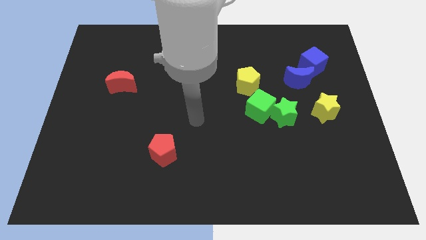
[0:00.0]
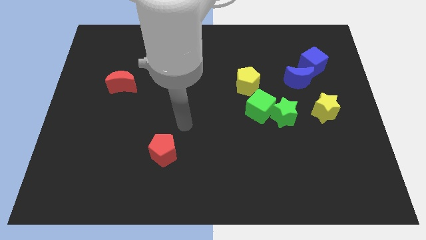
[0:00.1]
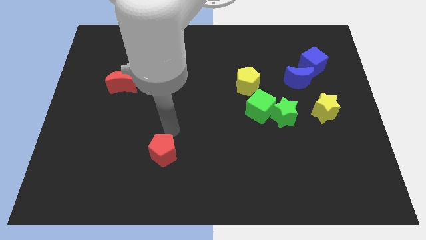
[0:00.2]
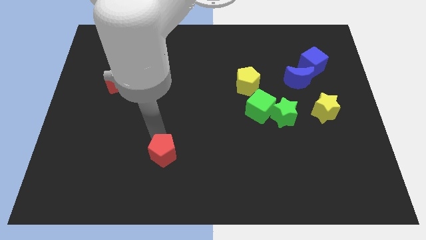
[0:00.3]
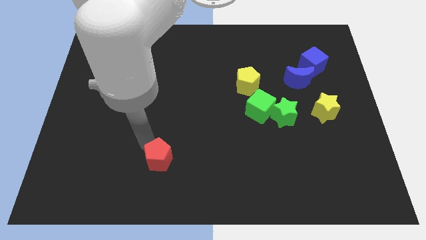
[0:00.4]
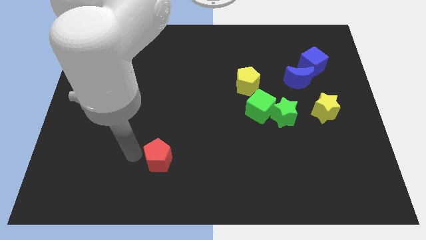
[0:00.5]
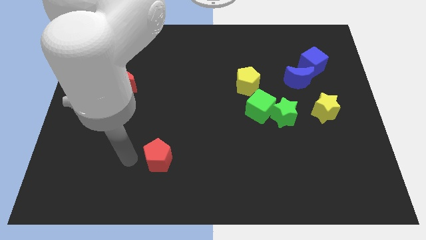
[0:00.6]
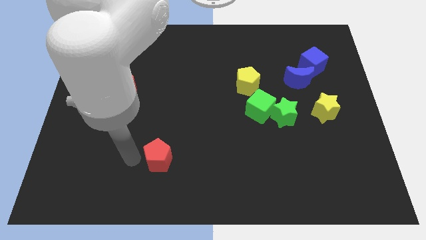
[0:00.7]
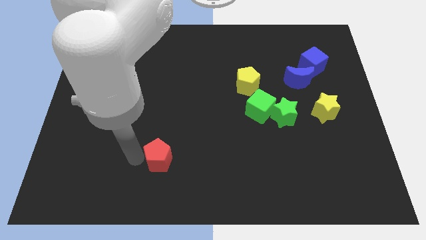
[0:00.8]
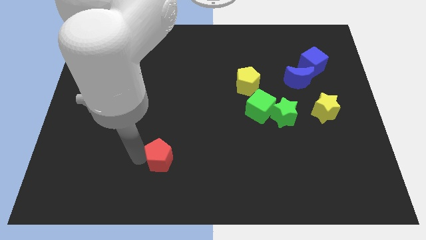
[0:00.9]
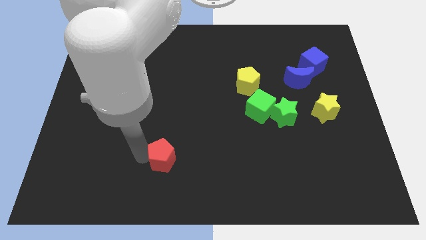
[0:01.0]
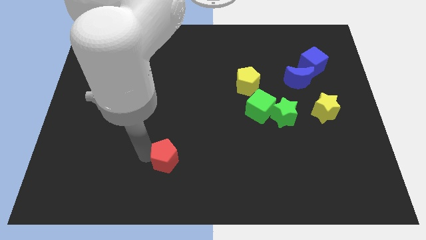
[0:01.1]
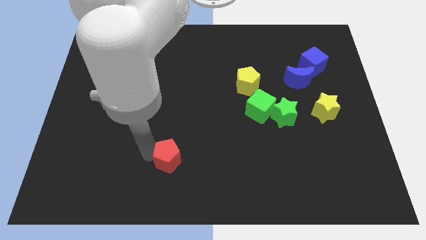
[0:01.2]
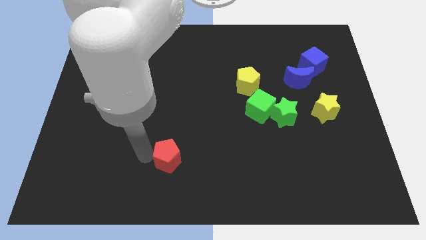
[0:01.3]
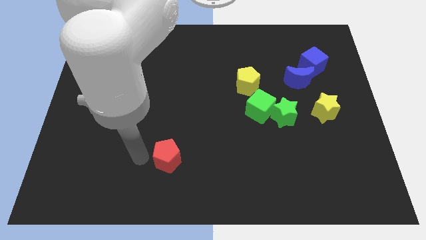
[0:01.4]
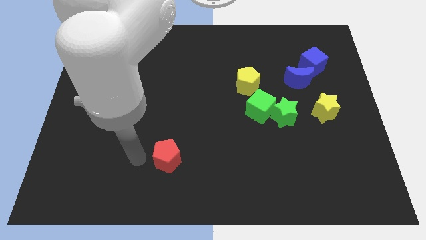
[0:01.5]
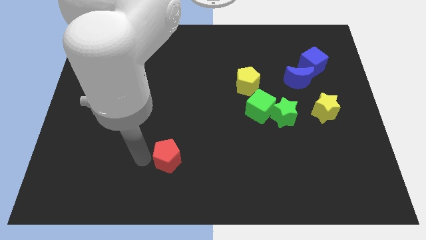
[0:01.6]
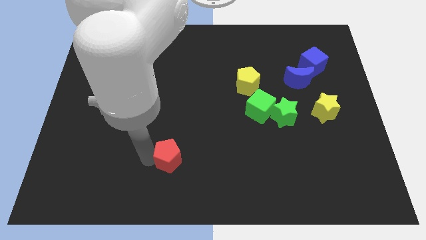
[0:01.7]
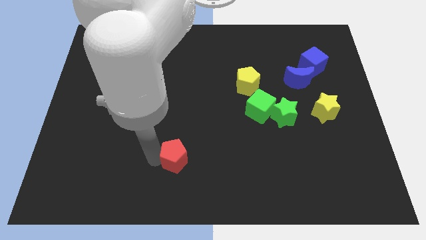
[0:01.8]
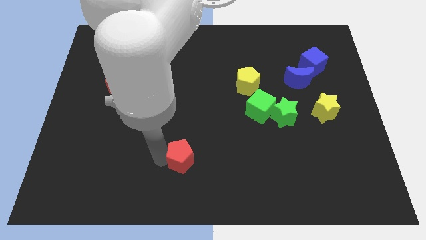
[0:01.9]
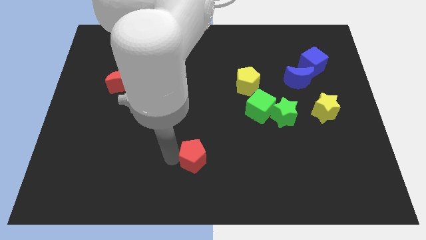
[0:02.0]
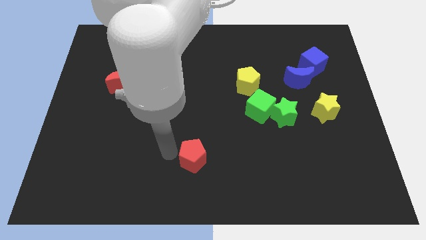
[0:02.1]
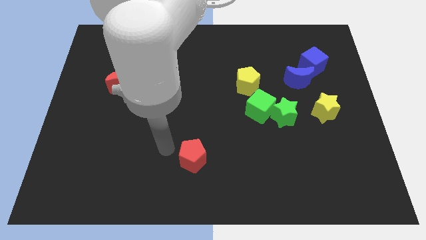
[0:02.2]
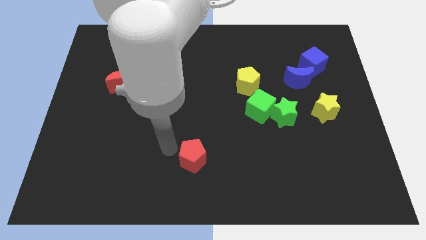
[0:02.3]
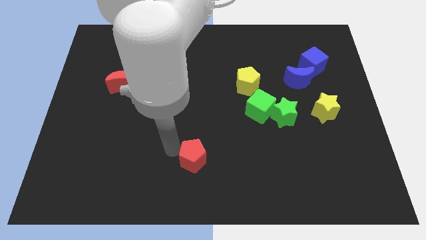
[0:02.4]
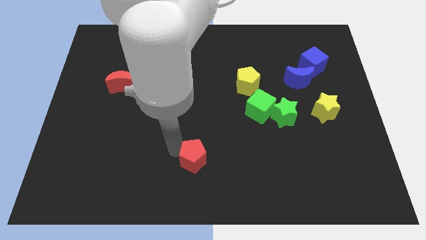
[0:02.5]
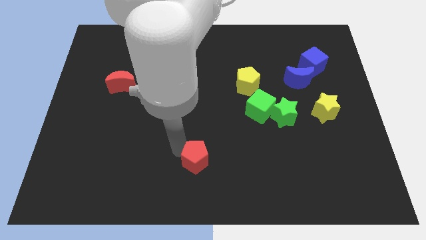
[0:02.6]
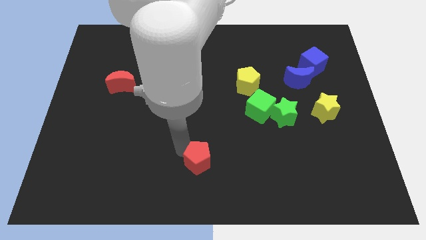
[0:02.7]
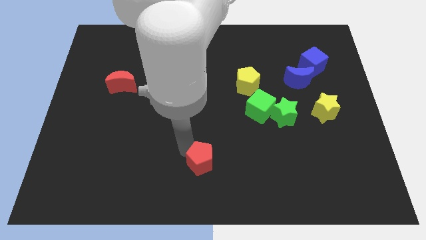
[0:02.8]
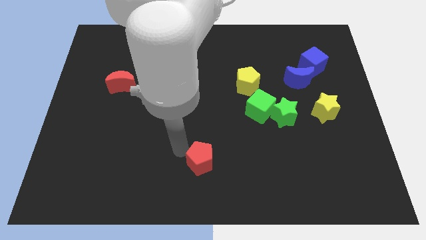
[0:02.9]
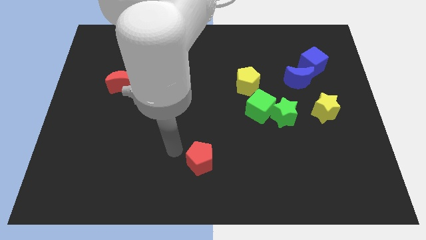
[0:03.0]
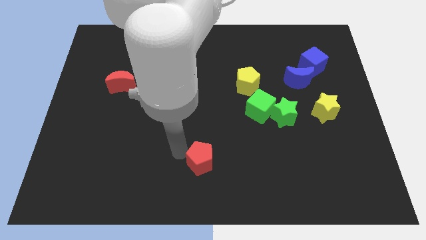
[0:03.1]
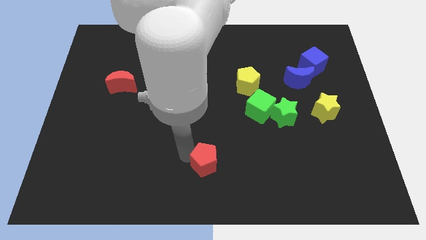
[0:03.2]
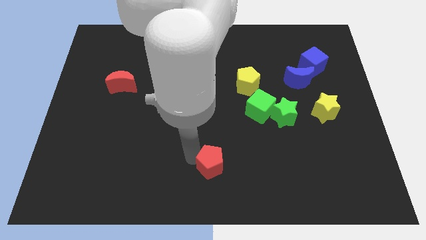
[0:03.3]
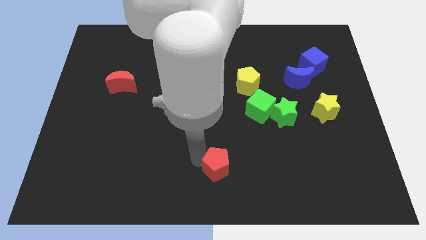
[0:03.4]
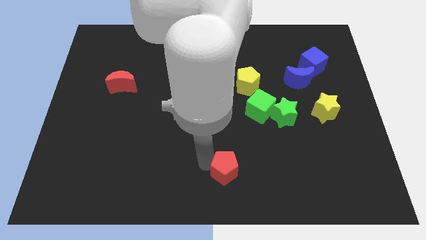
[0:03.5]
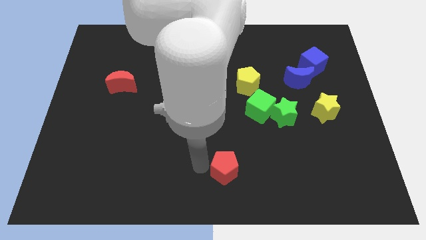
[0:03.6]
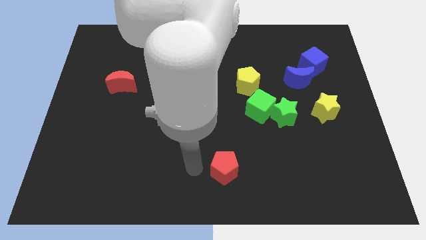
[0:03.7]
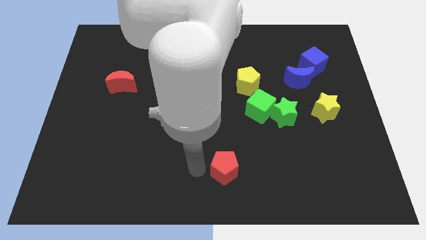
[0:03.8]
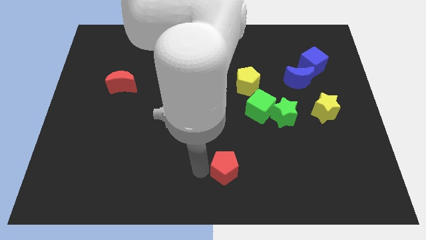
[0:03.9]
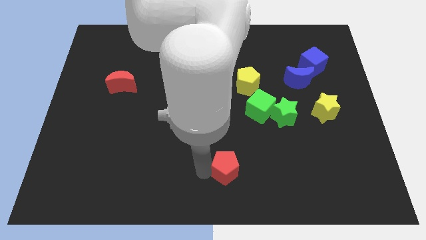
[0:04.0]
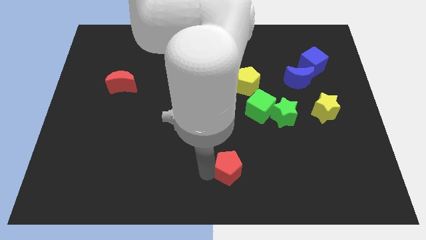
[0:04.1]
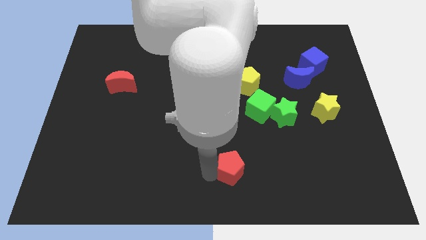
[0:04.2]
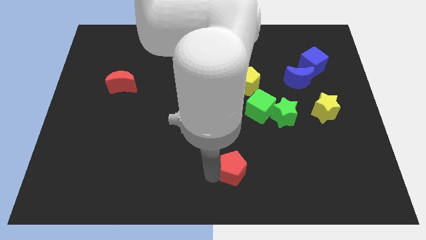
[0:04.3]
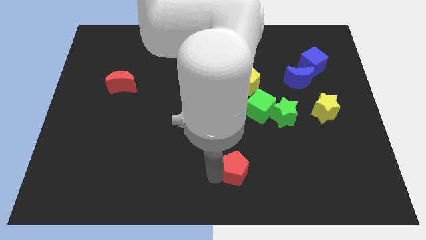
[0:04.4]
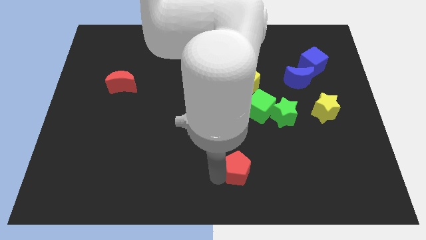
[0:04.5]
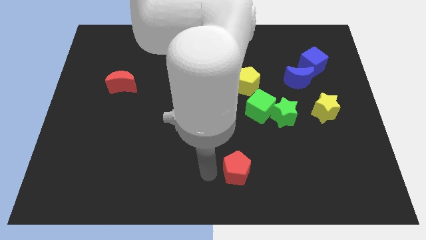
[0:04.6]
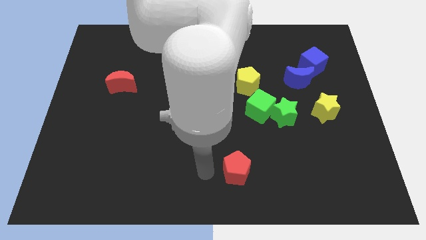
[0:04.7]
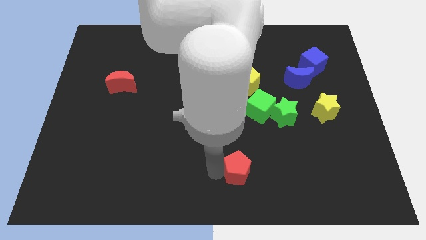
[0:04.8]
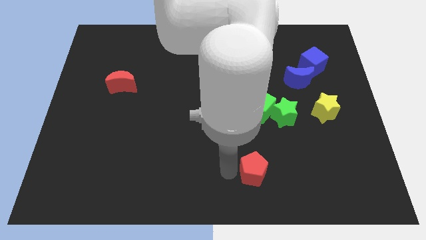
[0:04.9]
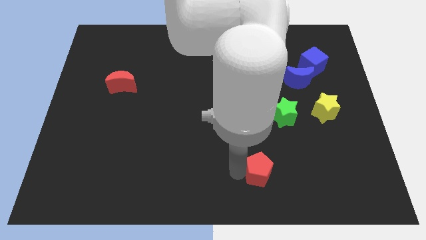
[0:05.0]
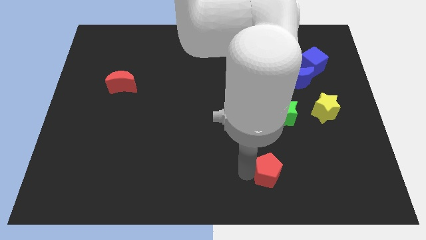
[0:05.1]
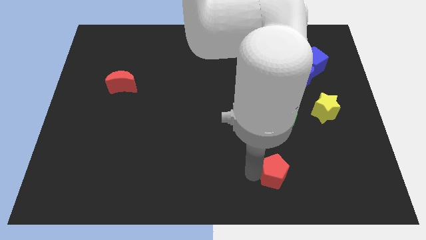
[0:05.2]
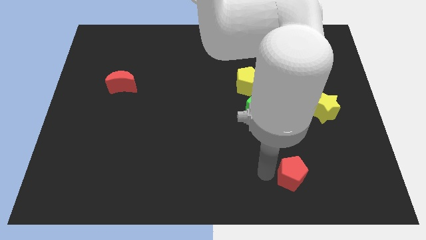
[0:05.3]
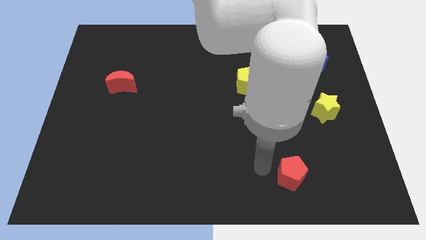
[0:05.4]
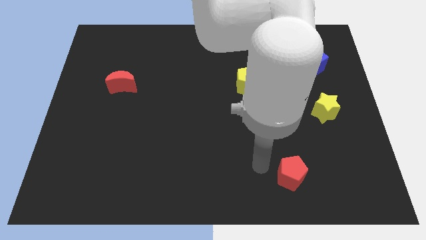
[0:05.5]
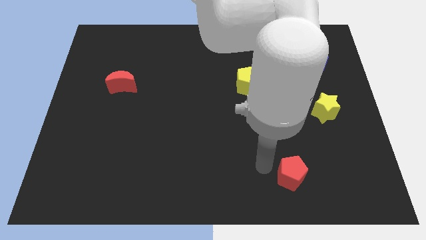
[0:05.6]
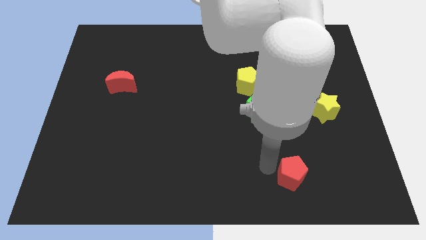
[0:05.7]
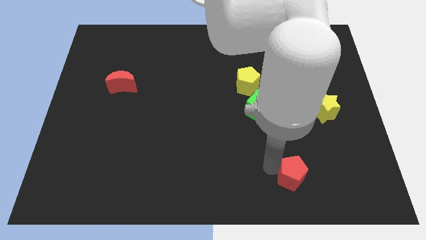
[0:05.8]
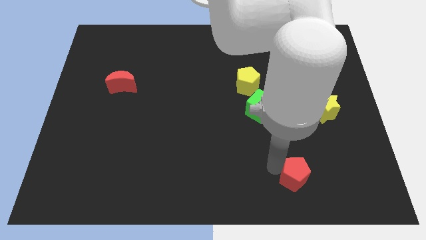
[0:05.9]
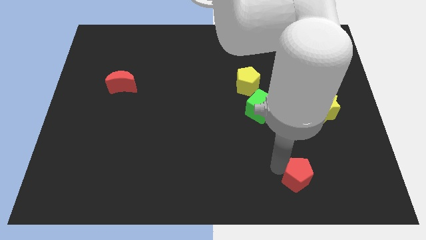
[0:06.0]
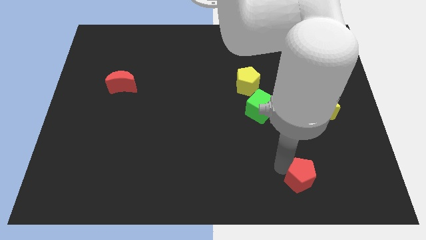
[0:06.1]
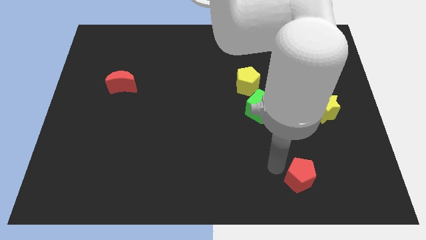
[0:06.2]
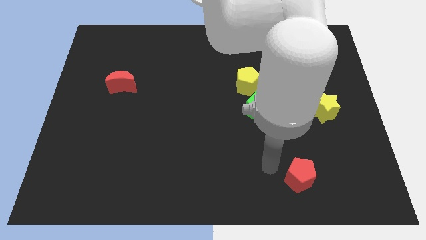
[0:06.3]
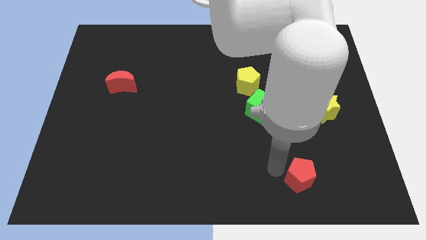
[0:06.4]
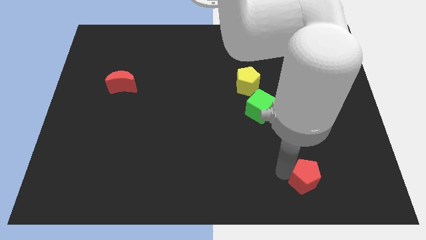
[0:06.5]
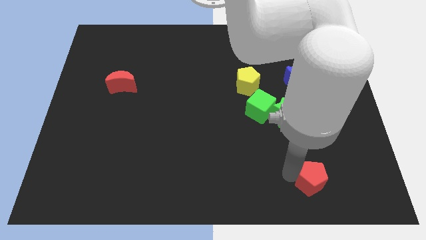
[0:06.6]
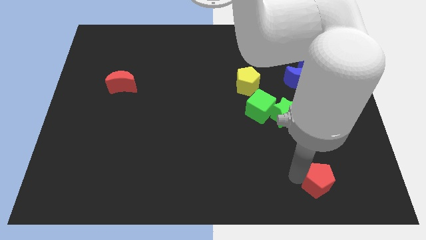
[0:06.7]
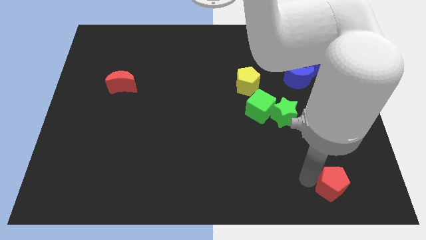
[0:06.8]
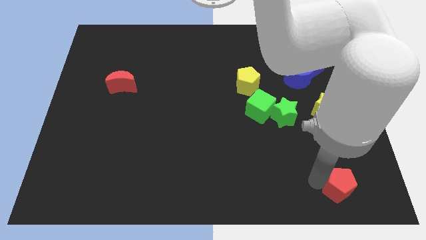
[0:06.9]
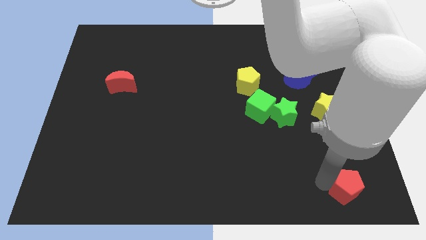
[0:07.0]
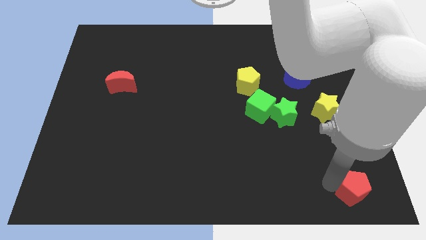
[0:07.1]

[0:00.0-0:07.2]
slide the red pentagon to the bottom right corner

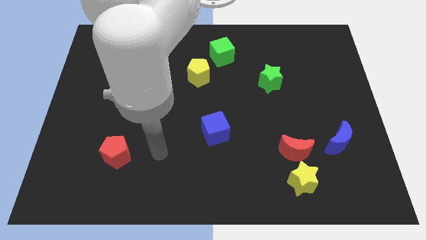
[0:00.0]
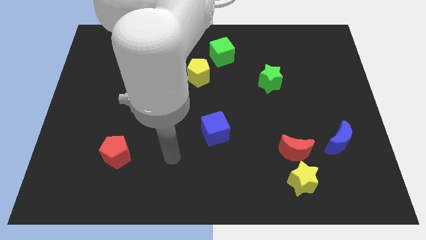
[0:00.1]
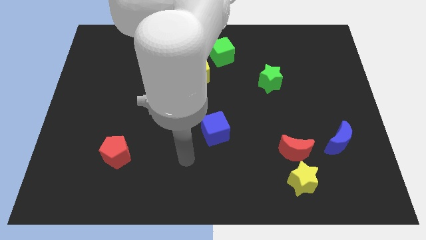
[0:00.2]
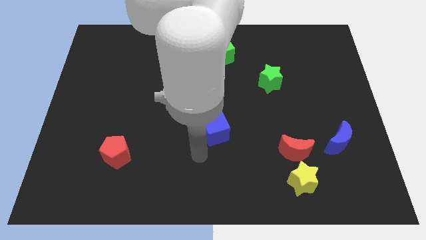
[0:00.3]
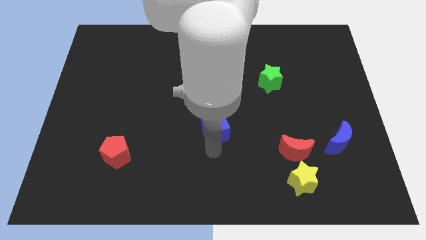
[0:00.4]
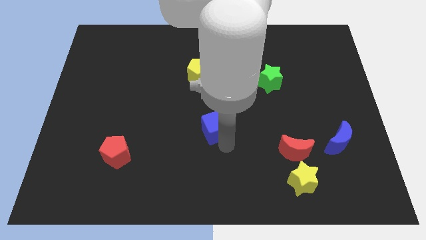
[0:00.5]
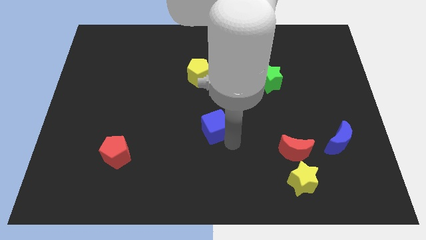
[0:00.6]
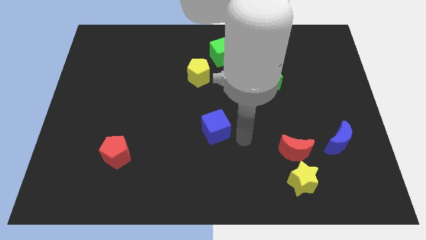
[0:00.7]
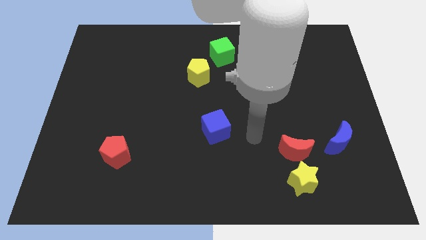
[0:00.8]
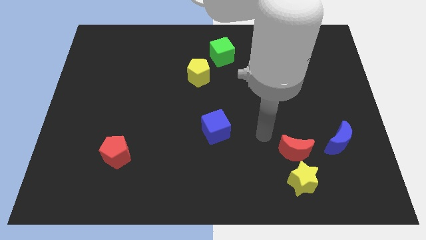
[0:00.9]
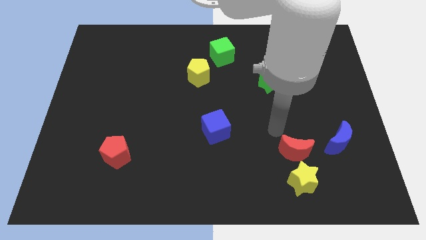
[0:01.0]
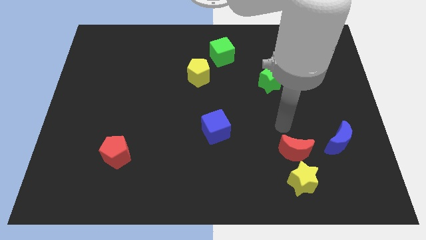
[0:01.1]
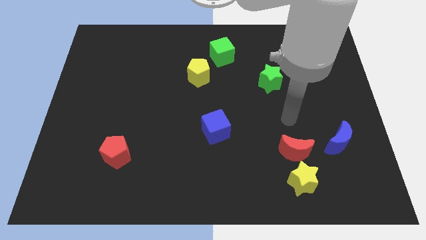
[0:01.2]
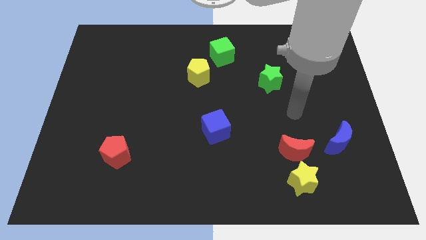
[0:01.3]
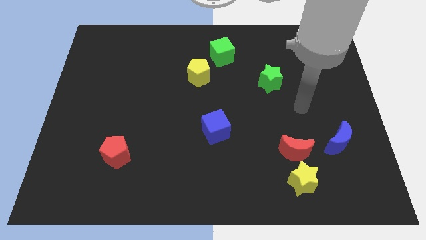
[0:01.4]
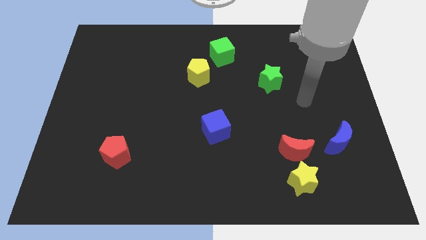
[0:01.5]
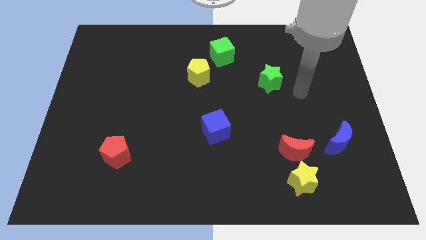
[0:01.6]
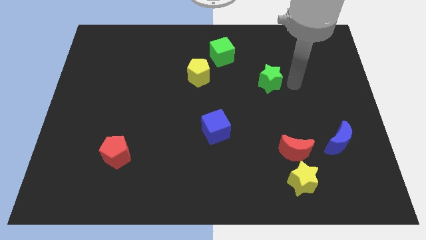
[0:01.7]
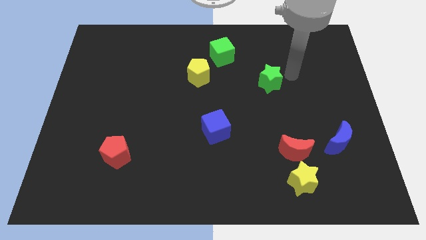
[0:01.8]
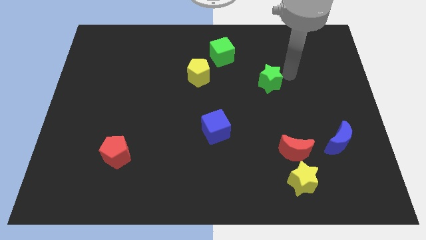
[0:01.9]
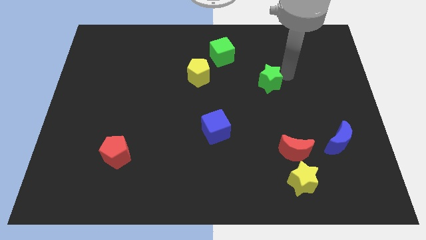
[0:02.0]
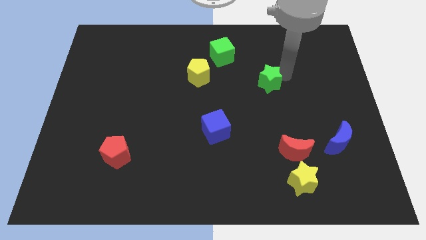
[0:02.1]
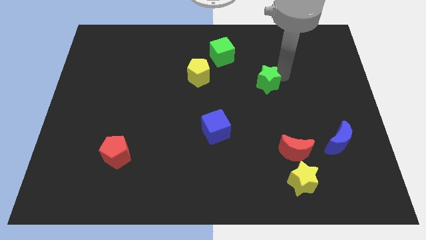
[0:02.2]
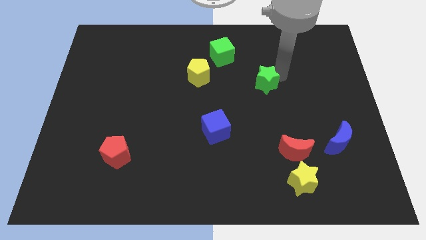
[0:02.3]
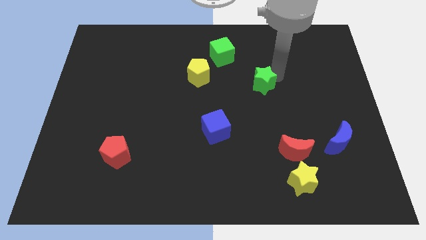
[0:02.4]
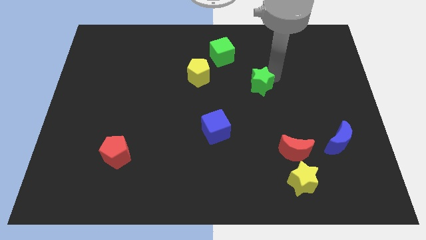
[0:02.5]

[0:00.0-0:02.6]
put the green star to the center
